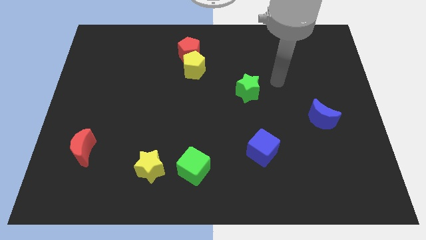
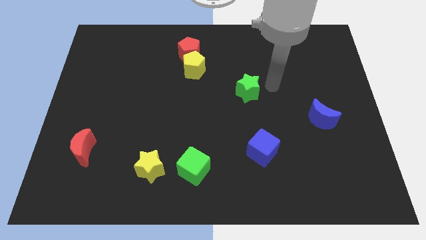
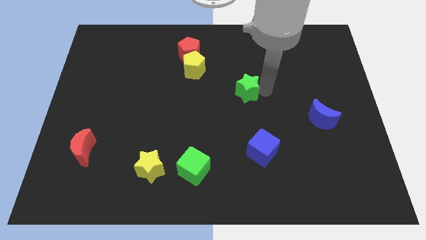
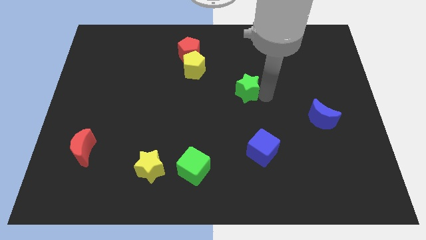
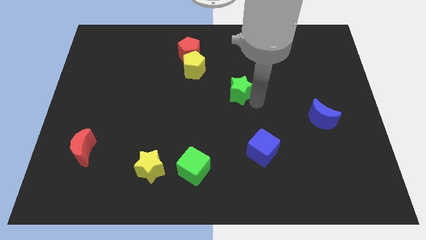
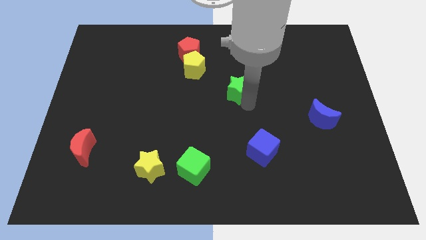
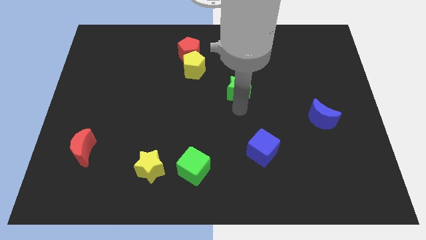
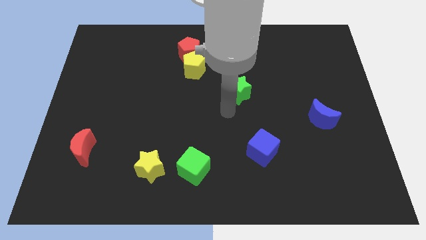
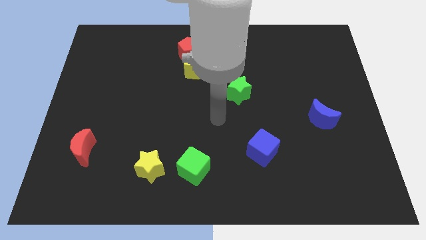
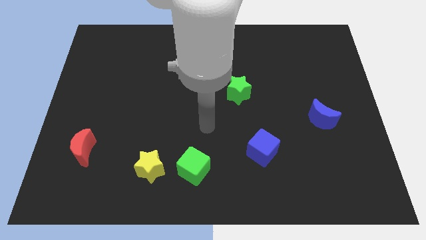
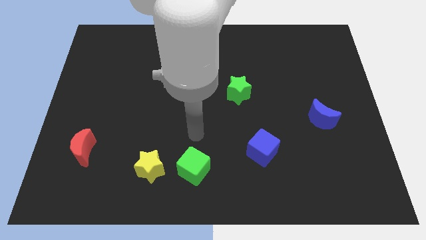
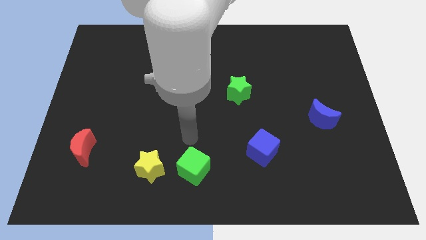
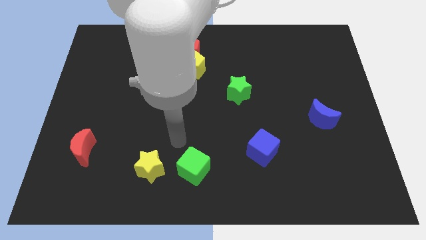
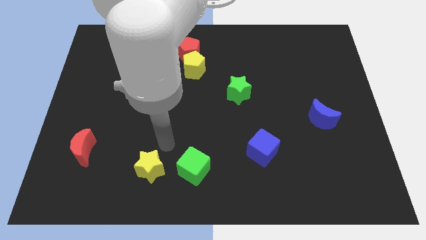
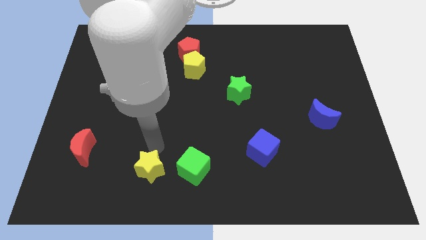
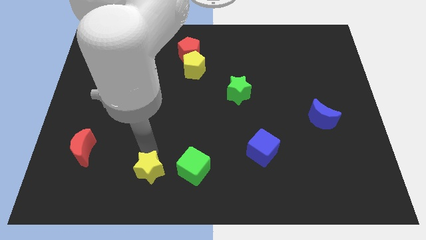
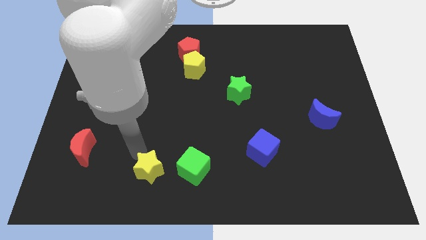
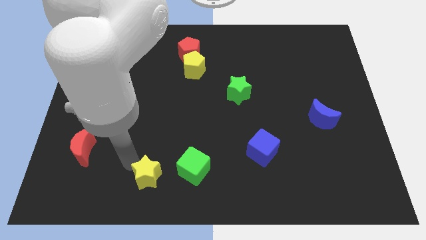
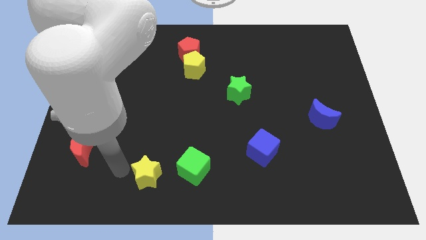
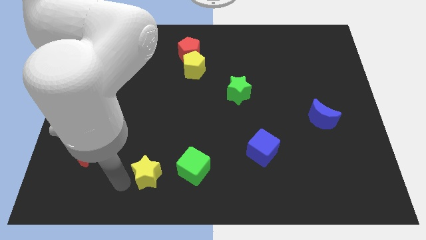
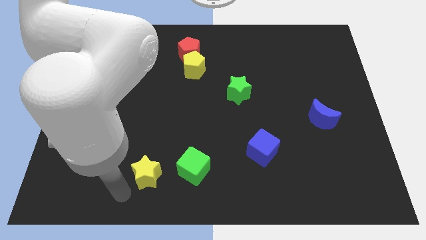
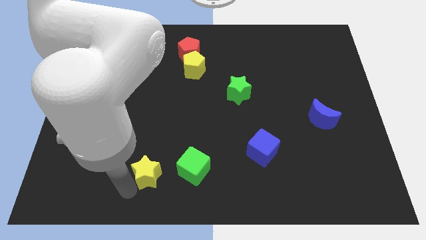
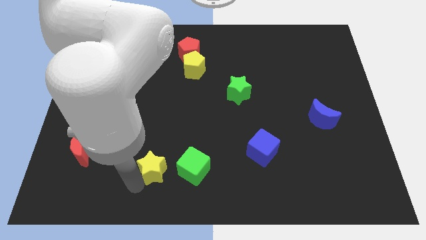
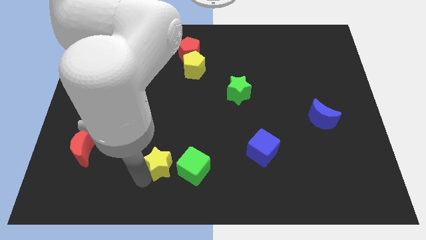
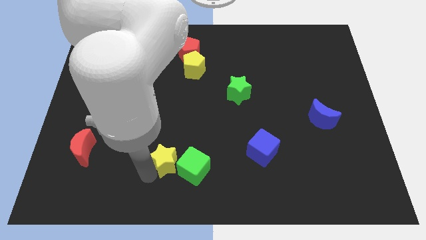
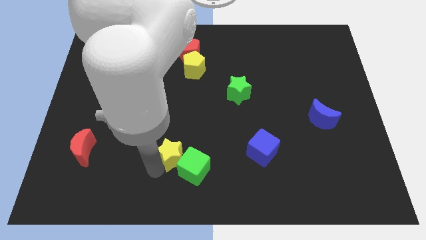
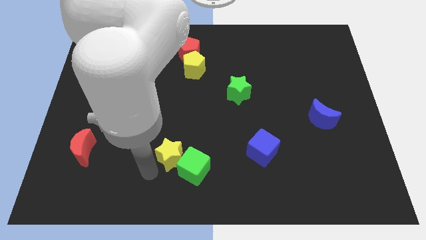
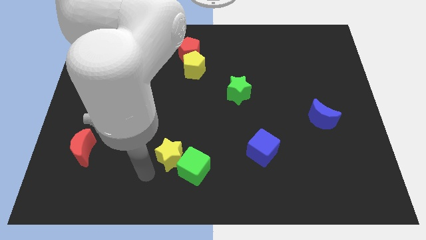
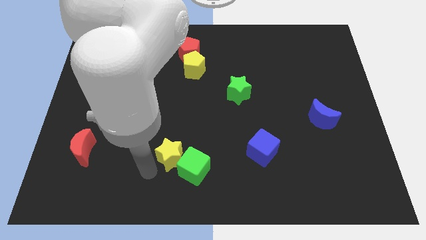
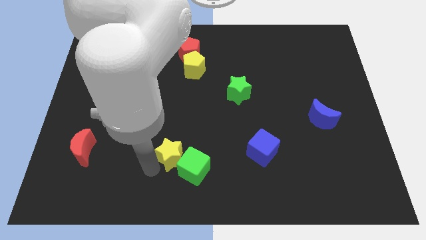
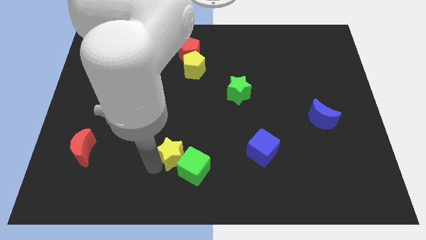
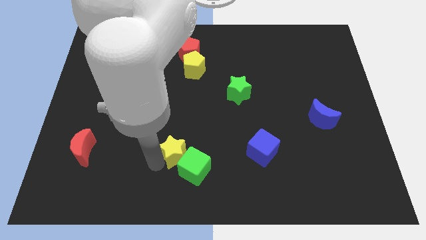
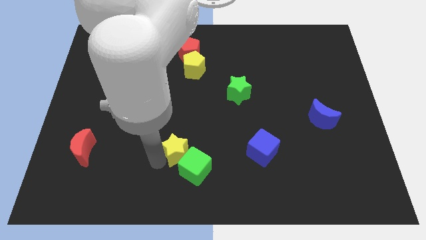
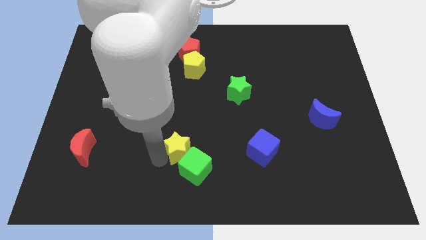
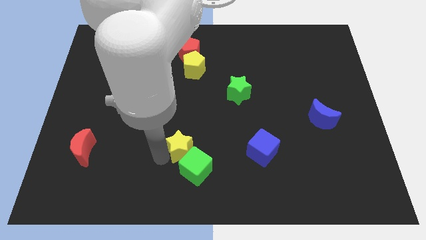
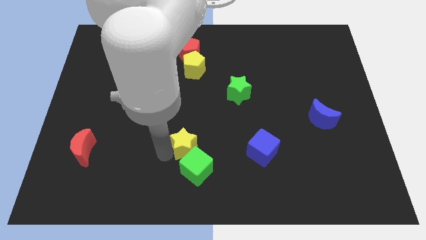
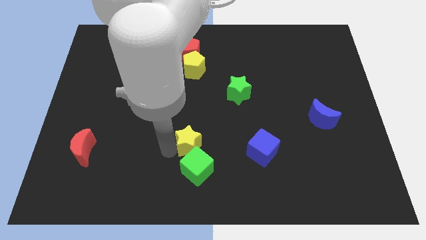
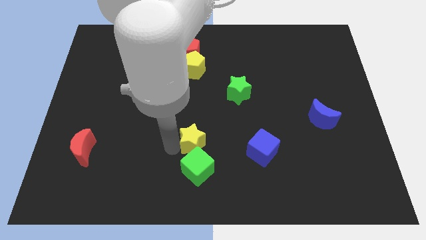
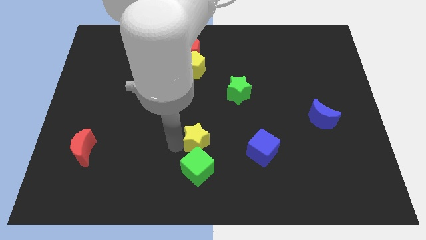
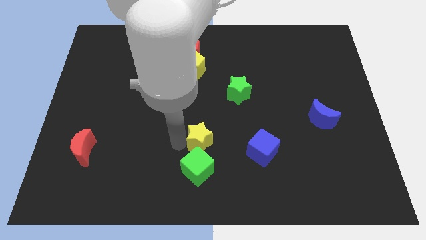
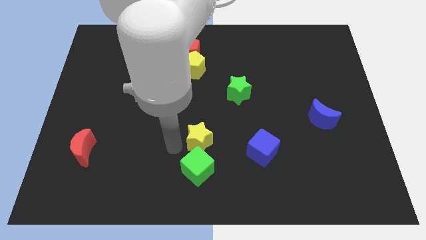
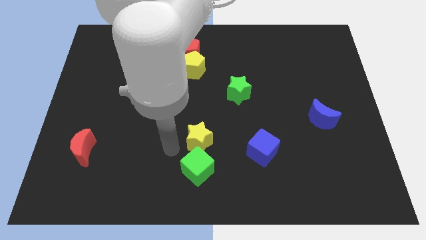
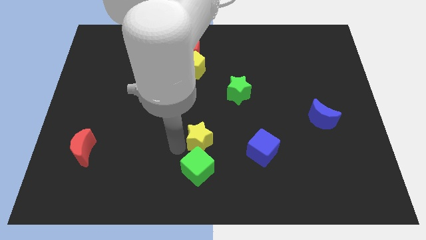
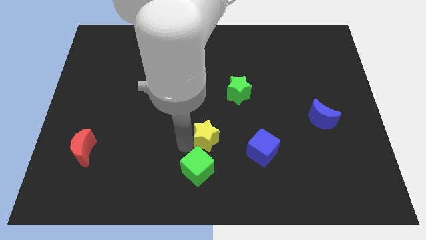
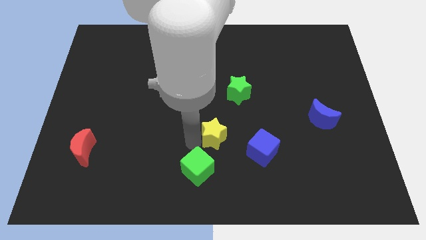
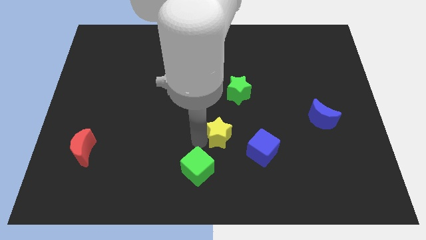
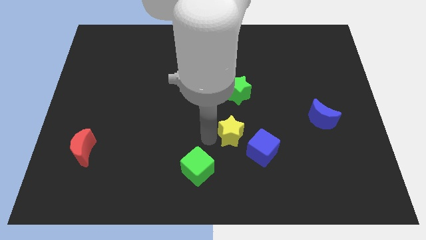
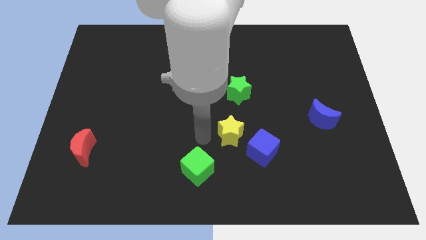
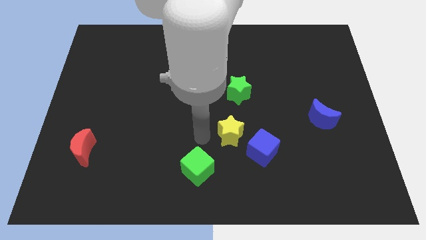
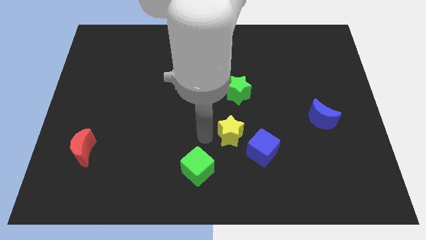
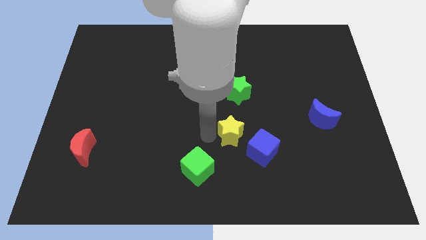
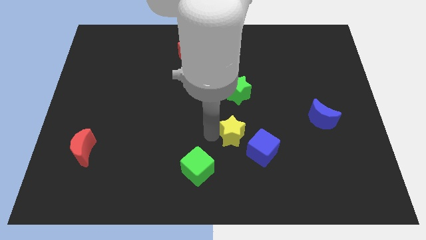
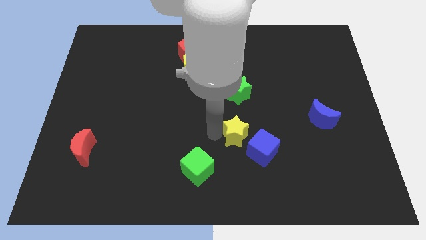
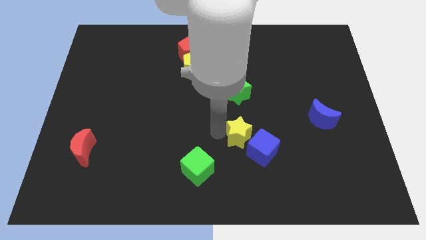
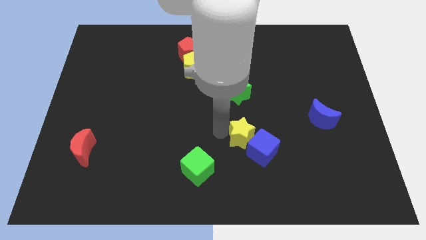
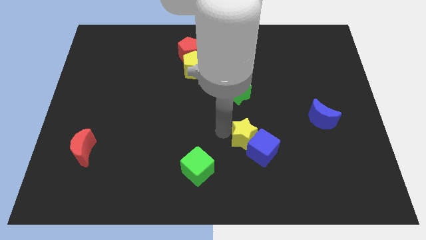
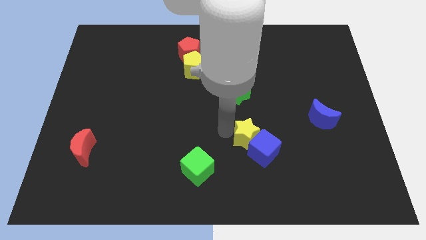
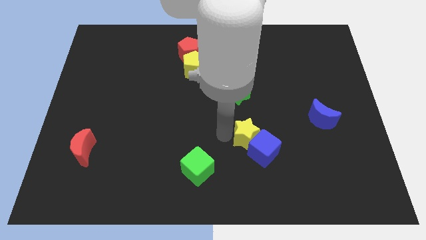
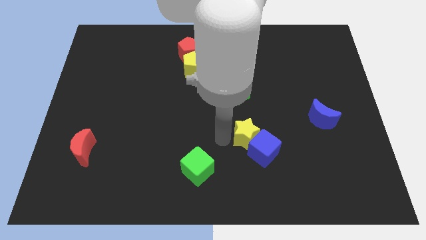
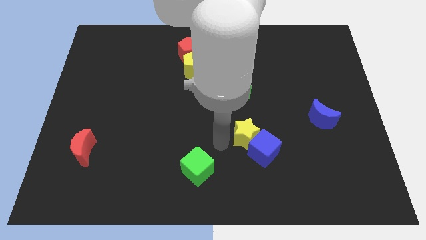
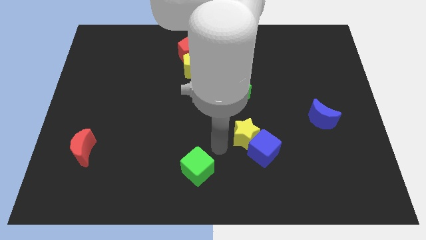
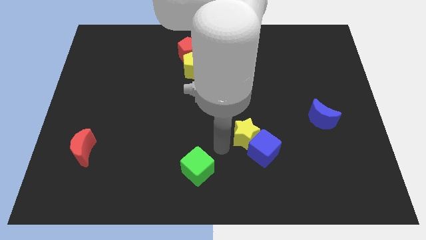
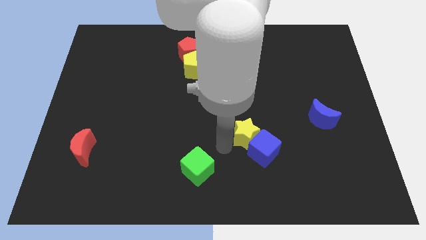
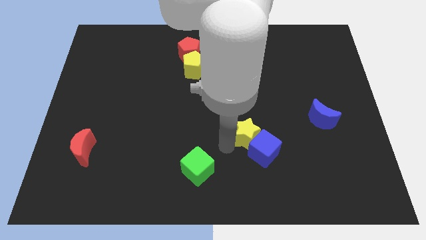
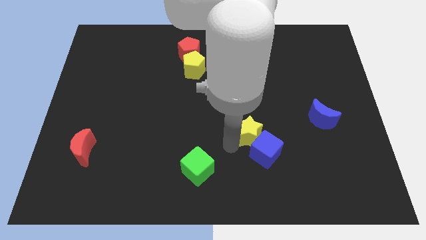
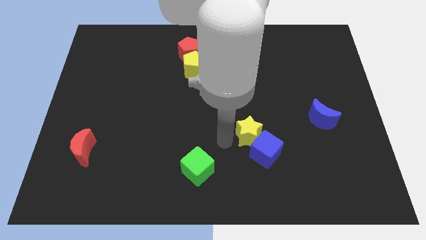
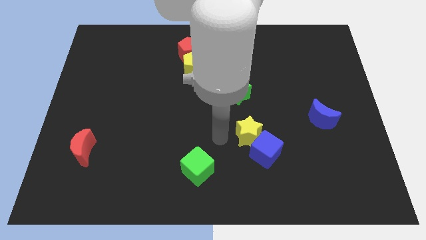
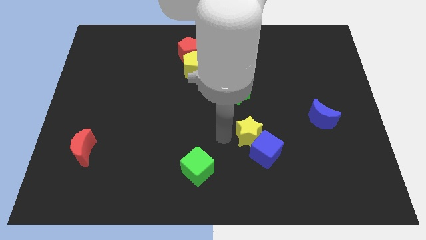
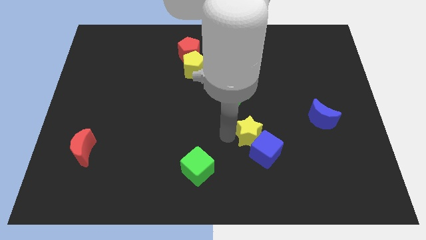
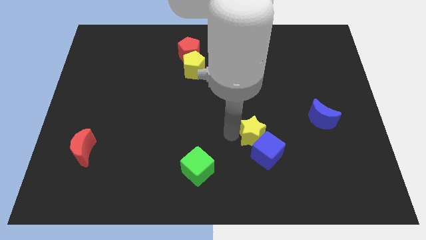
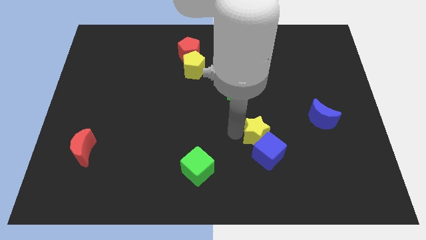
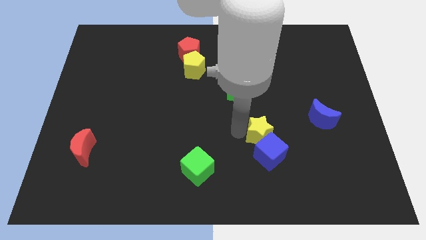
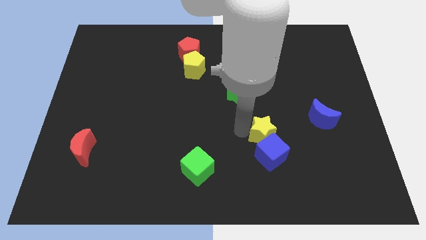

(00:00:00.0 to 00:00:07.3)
put the yellow star to the top right of the blue cube
